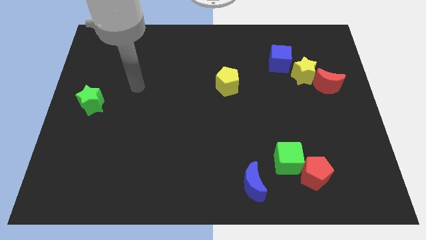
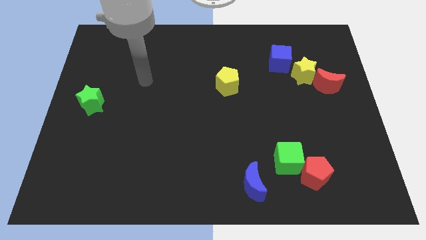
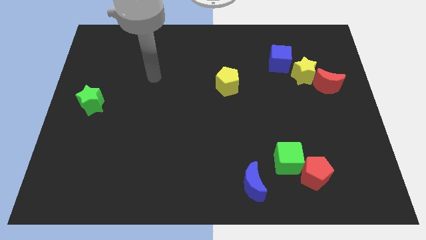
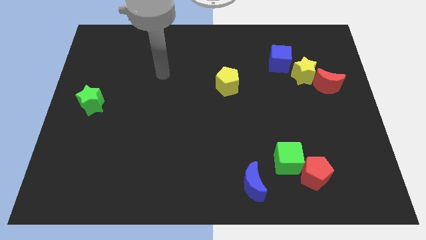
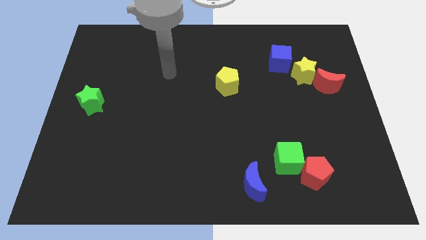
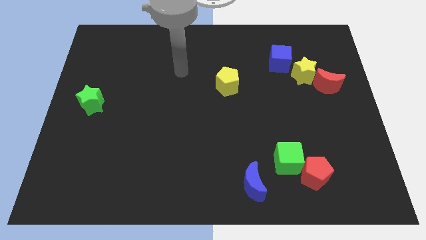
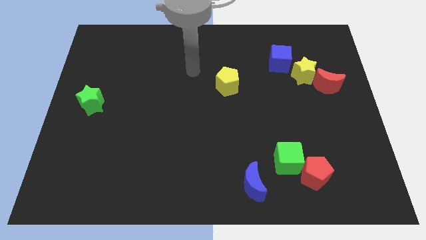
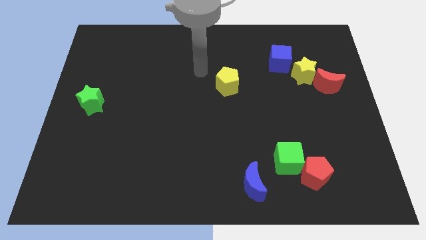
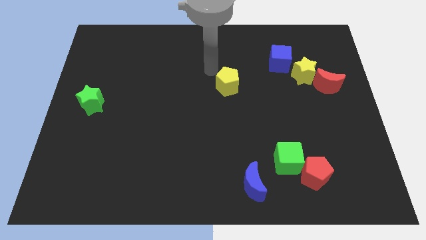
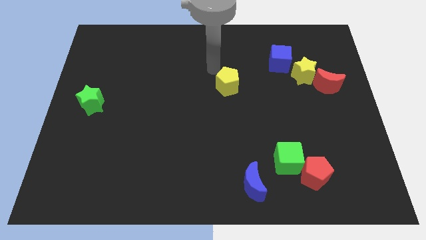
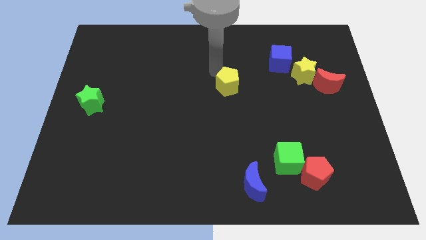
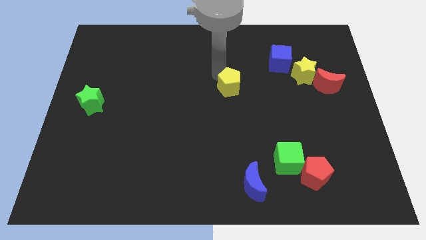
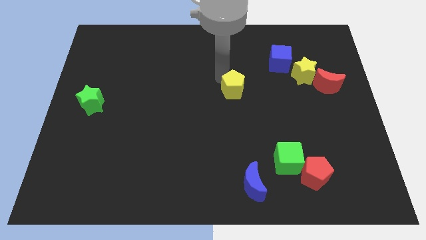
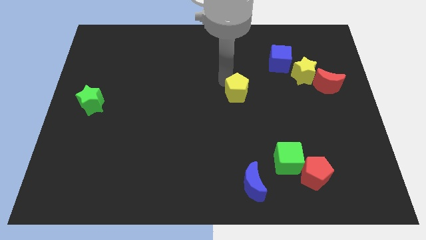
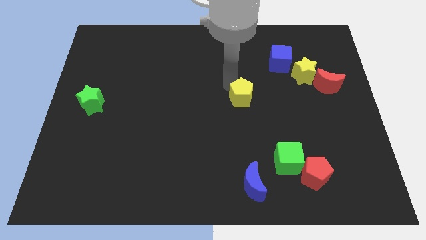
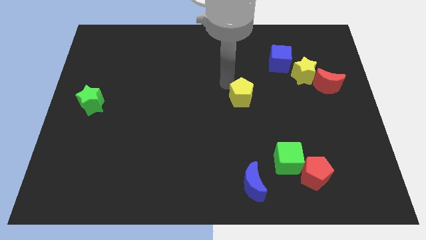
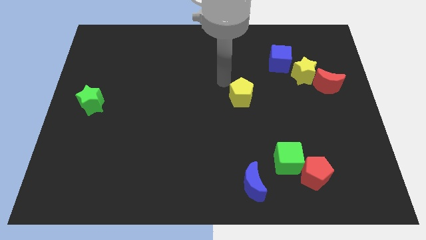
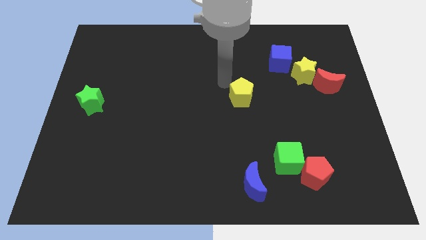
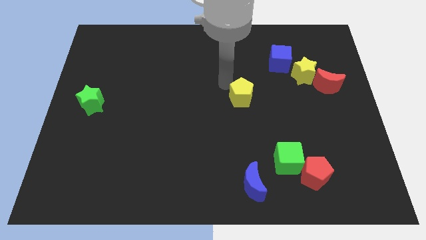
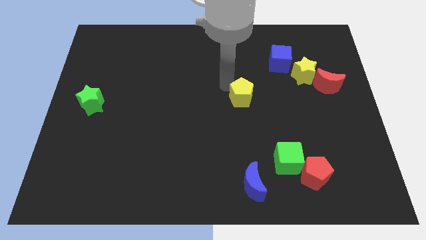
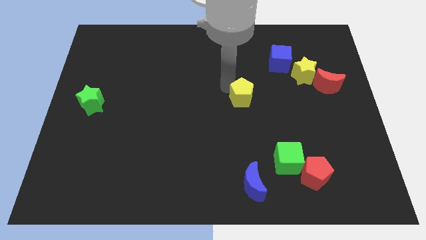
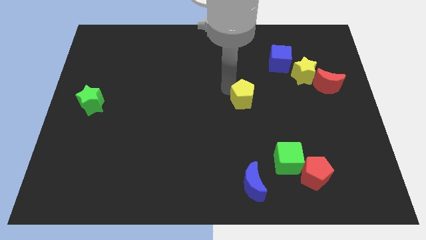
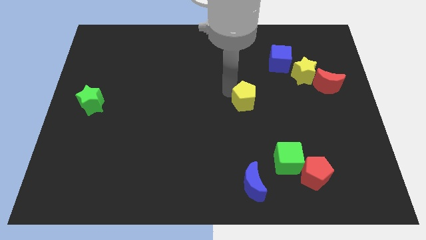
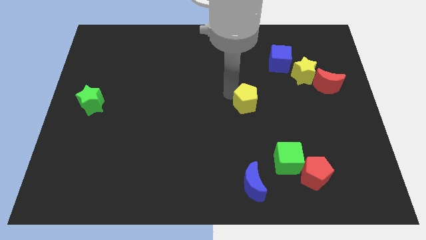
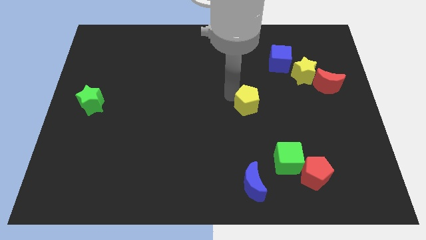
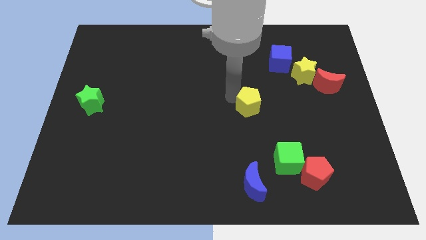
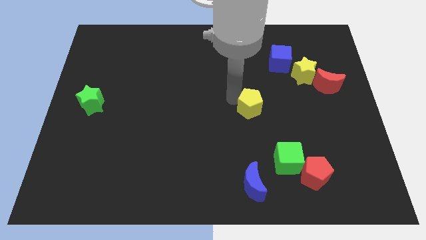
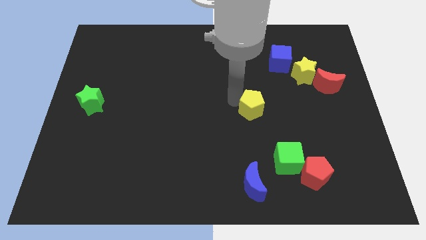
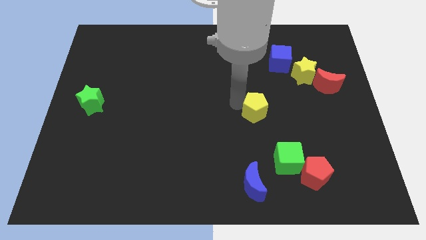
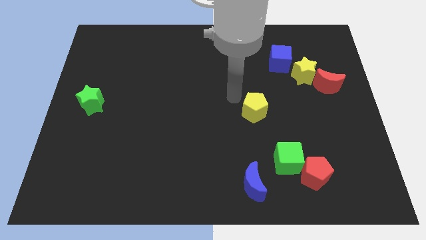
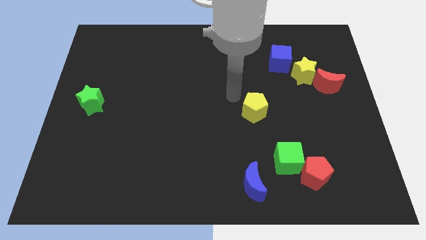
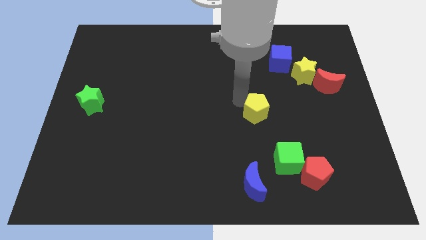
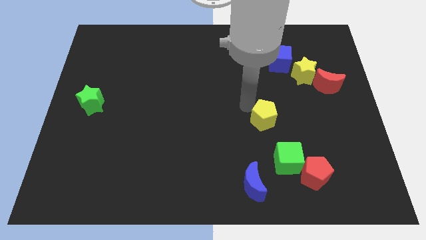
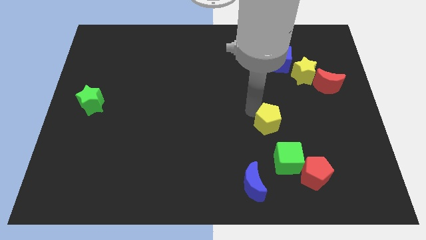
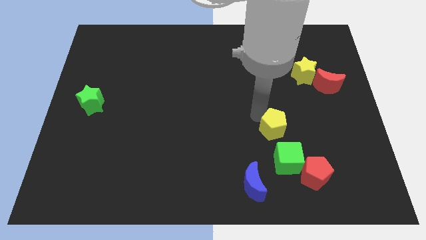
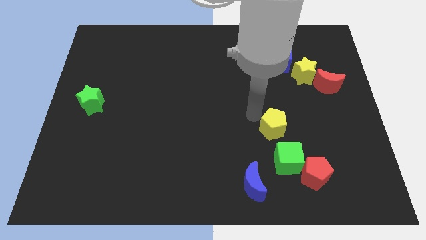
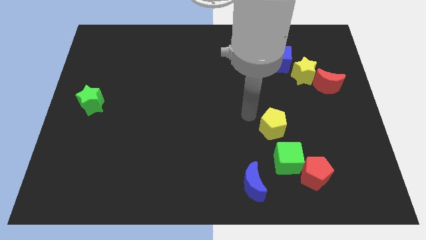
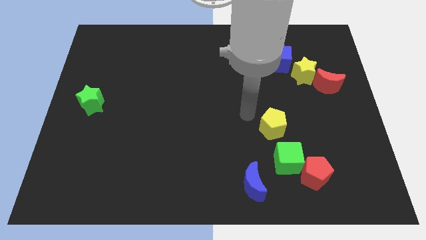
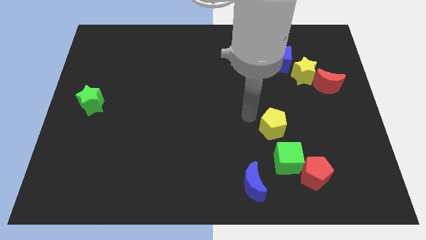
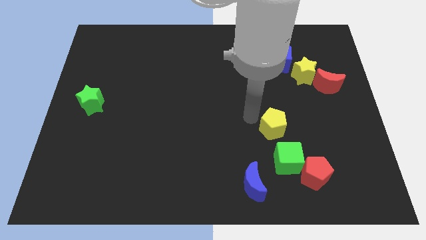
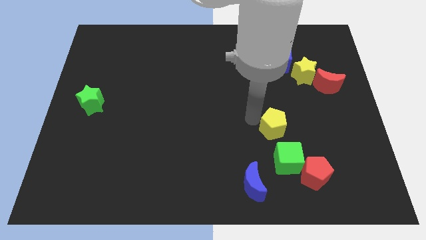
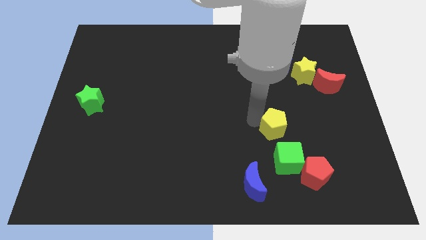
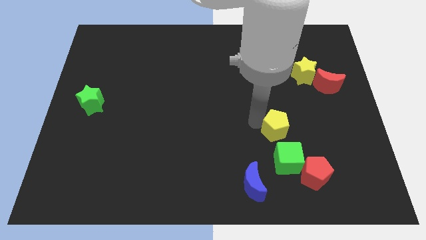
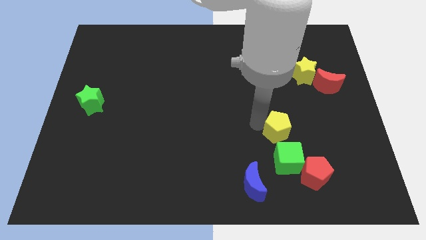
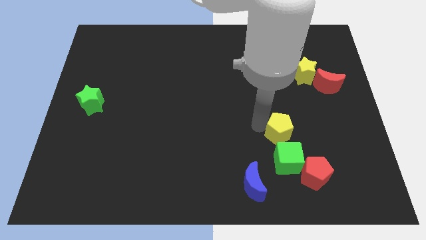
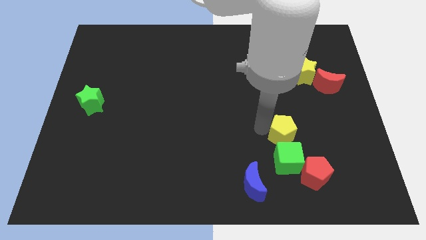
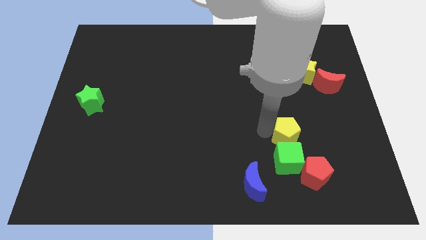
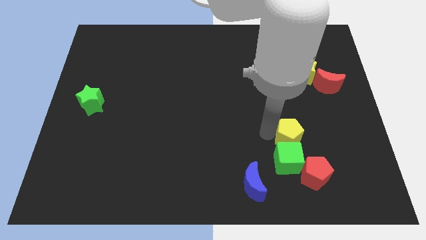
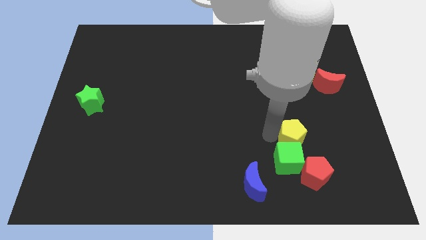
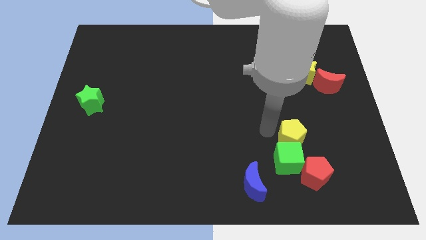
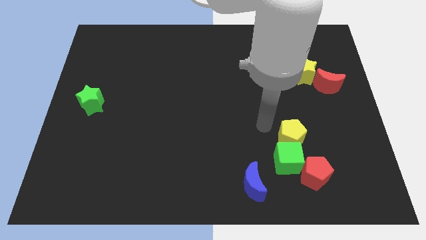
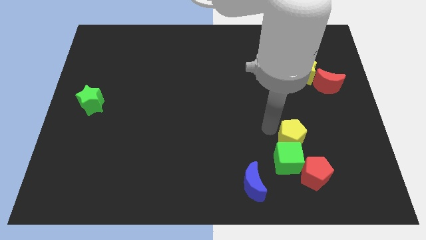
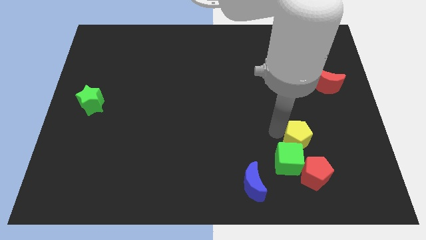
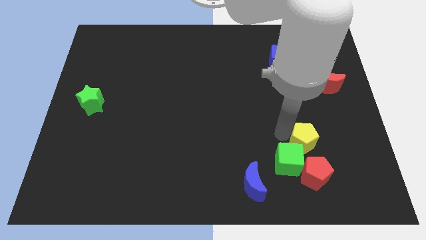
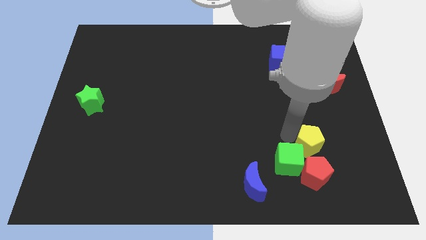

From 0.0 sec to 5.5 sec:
move the yellow pentagon just right of the green cube

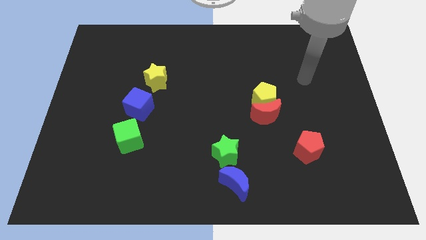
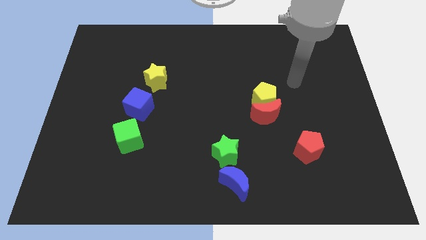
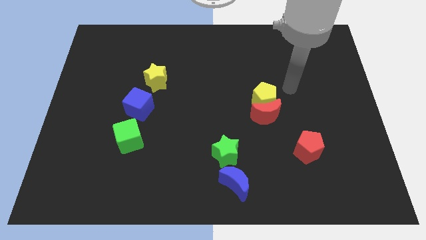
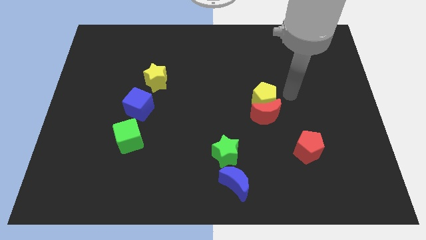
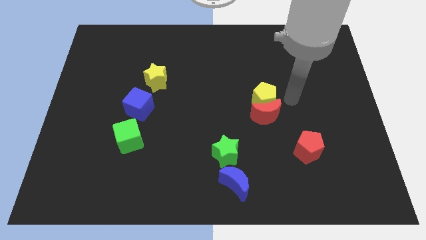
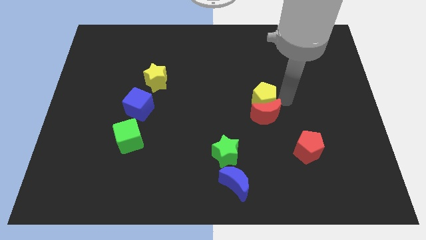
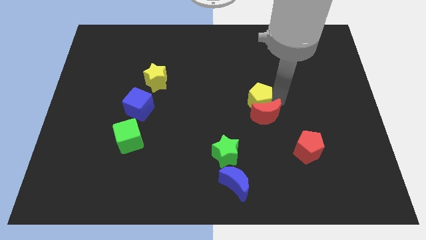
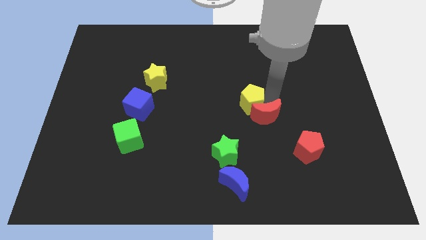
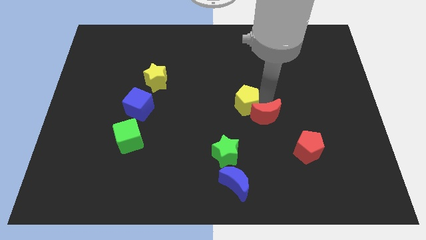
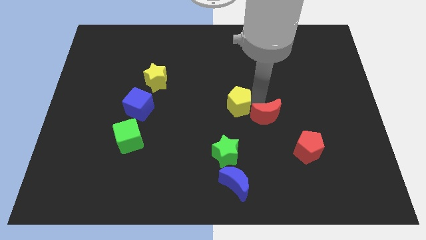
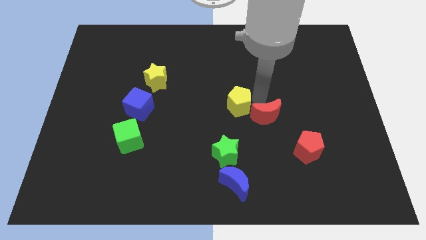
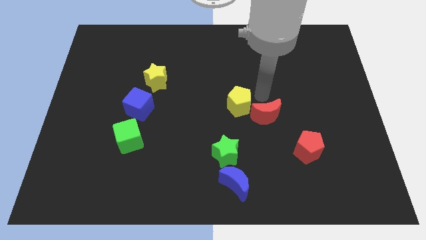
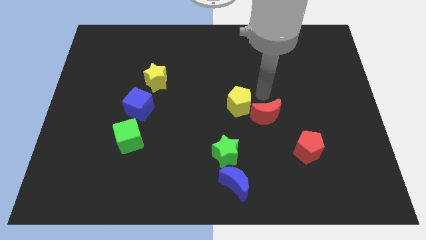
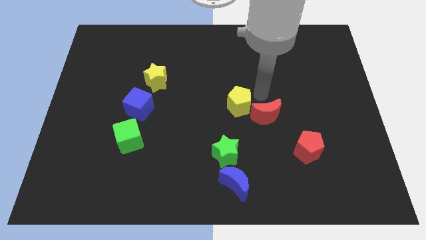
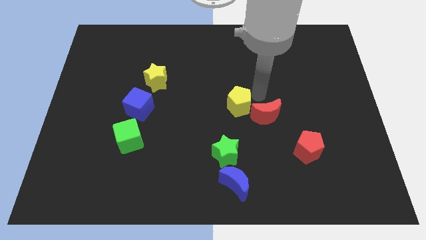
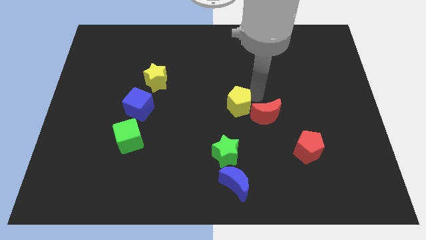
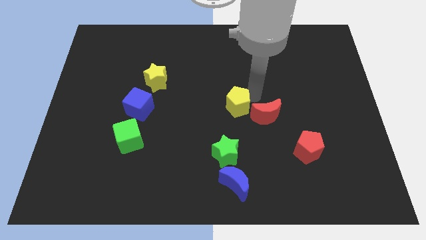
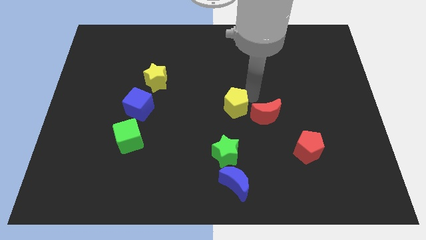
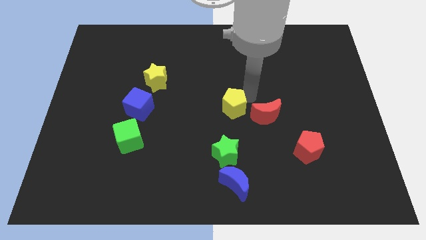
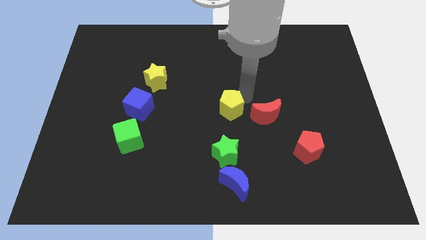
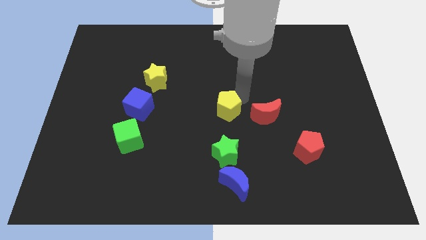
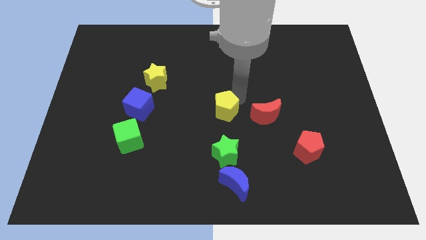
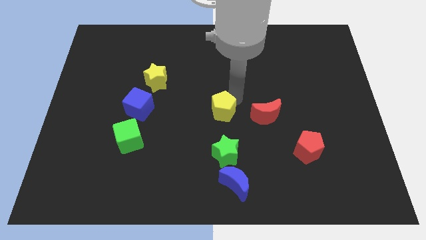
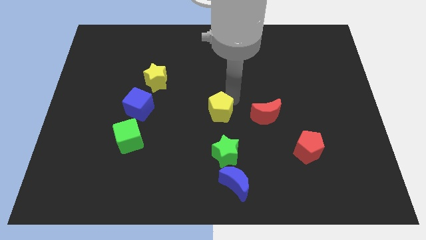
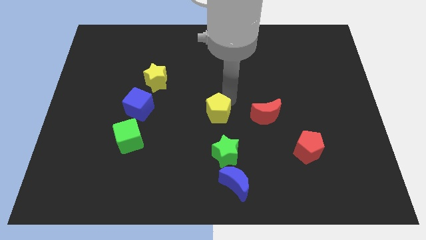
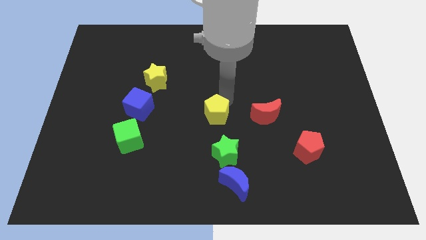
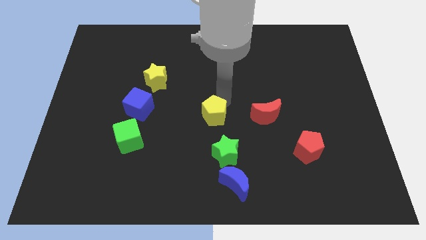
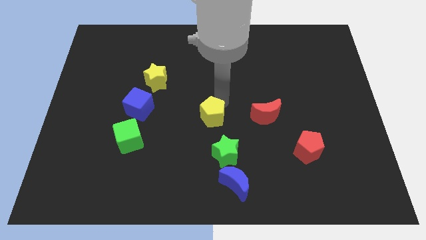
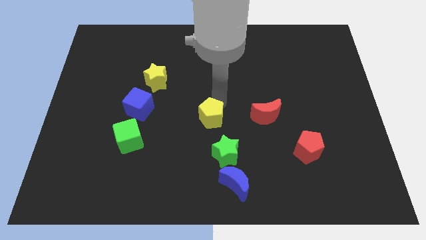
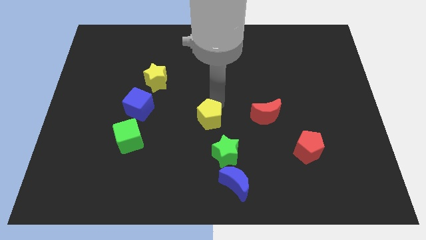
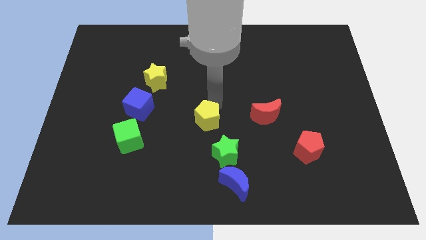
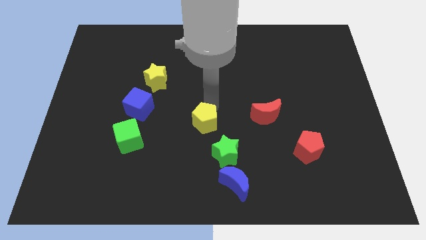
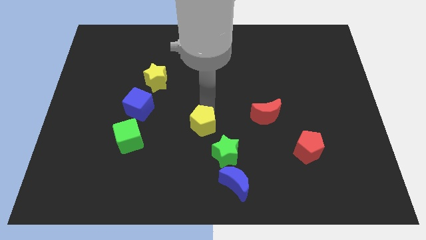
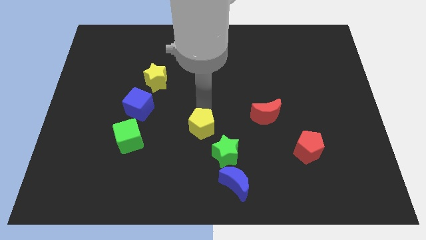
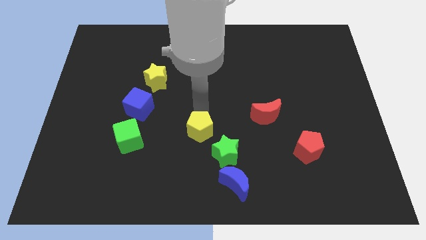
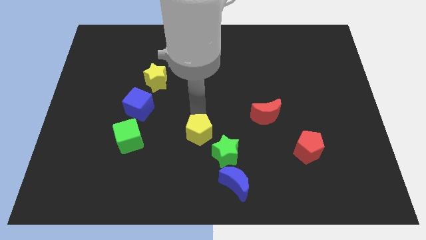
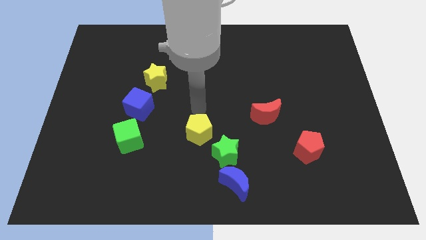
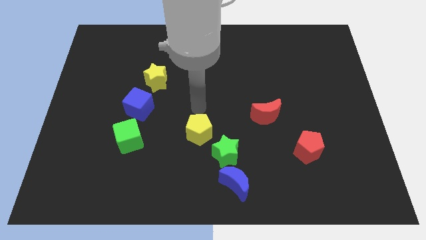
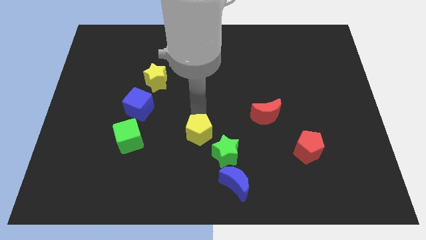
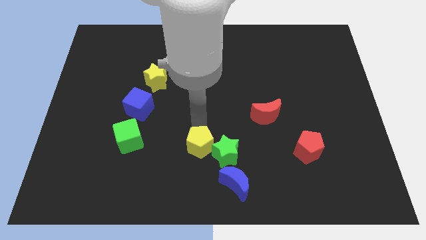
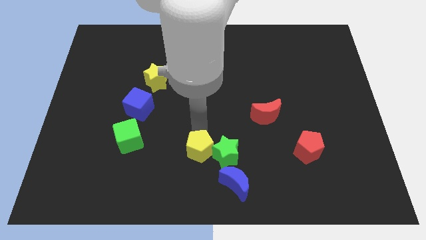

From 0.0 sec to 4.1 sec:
push the yellow pentagon to the bottom left side of the green star
